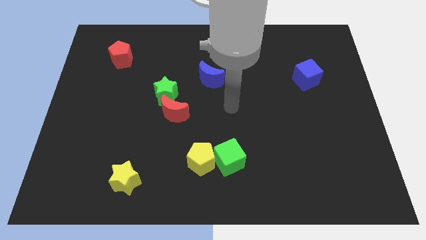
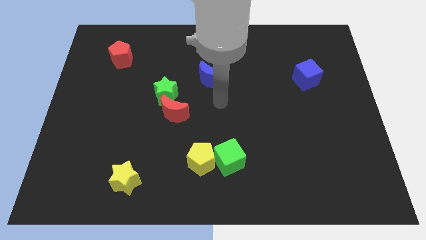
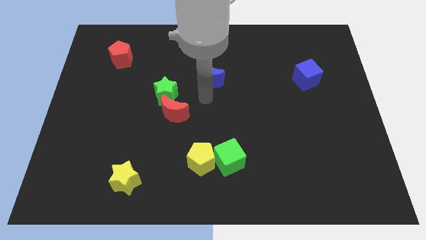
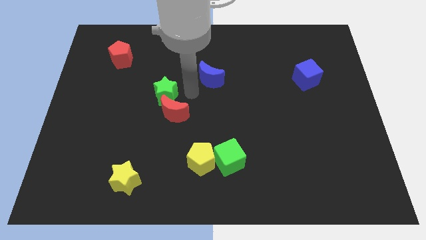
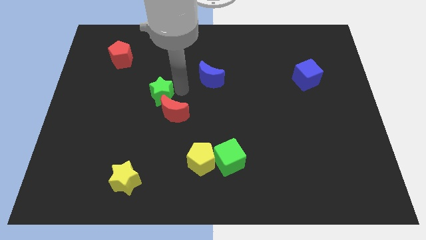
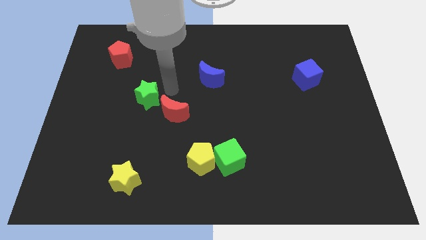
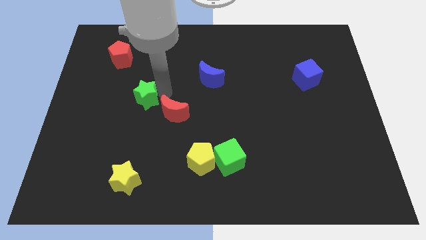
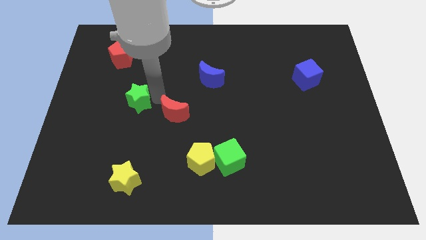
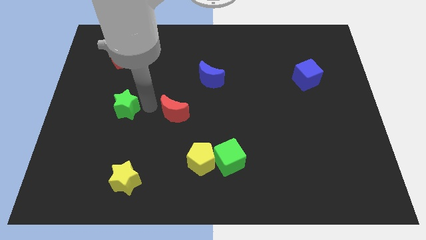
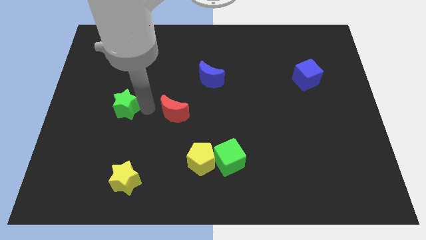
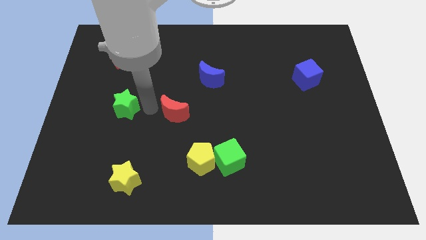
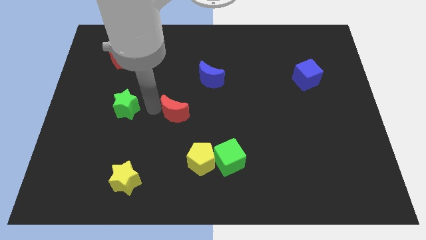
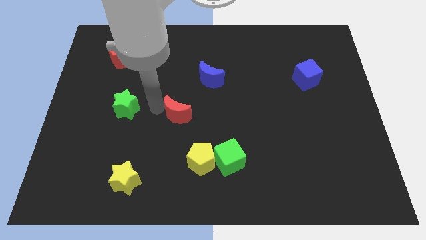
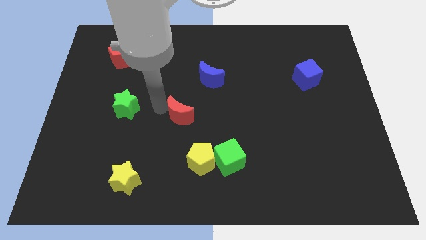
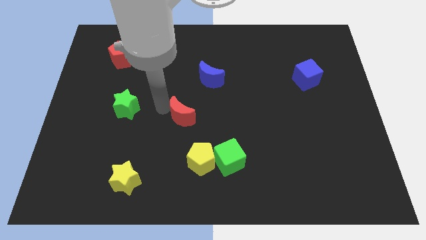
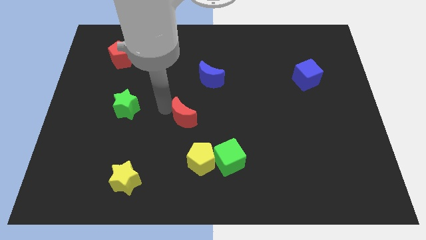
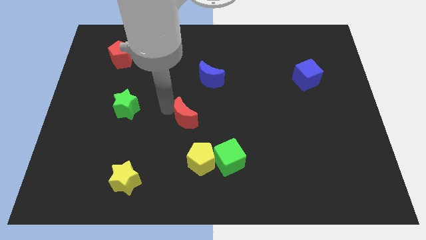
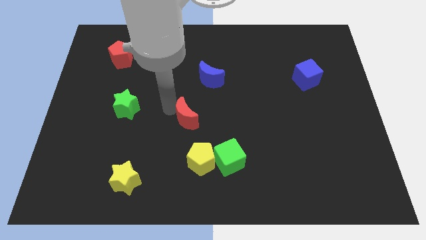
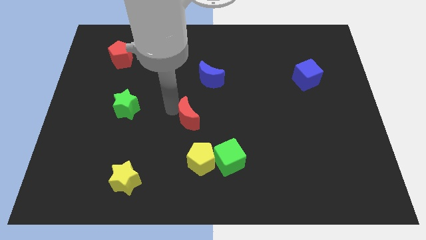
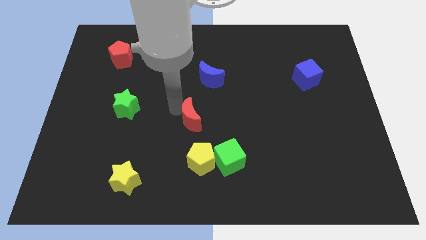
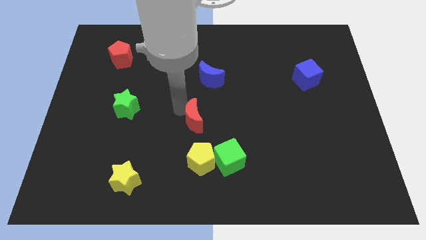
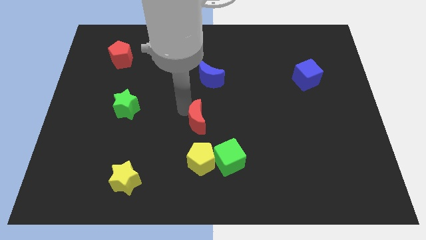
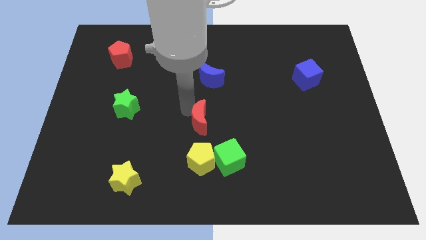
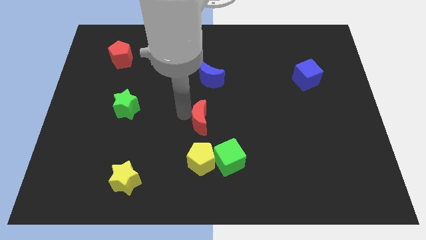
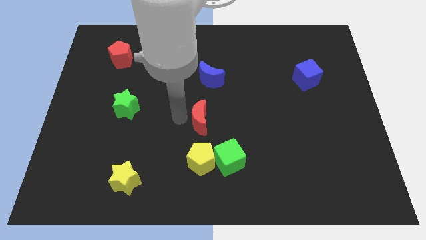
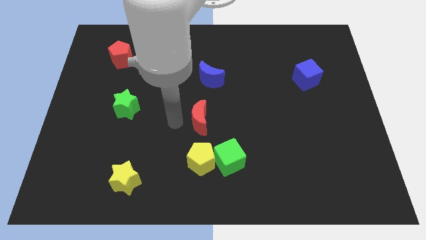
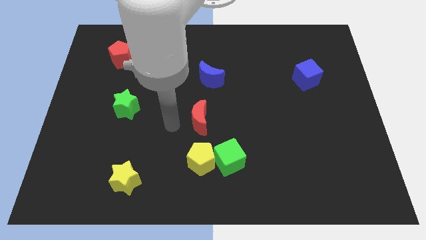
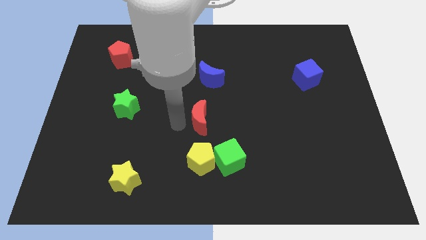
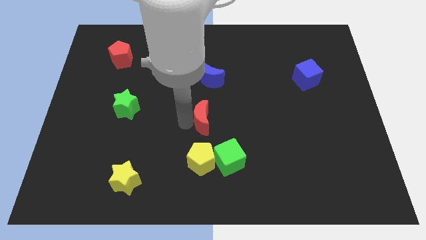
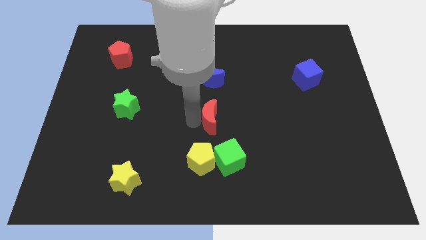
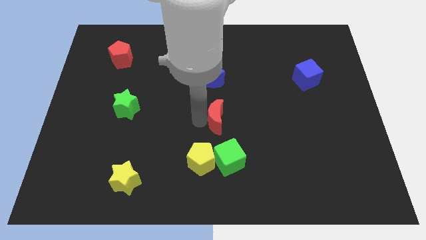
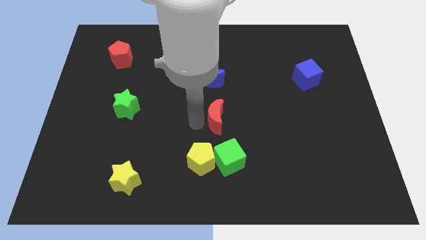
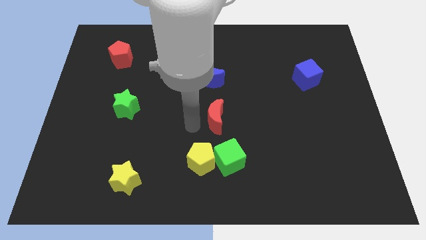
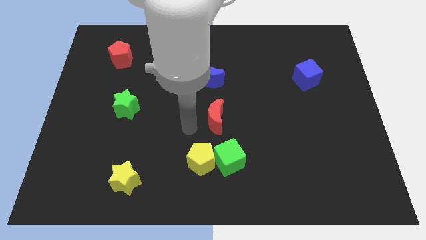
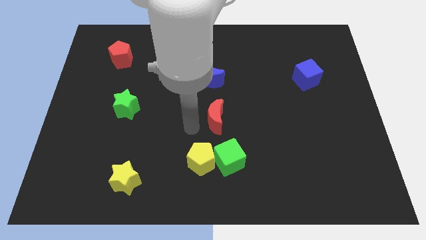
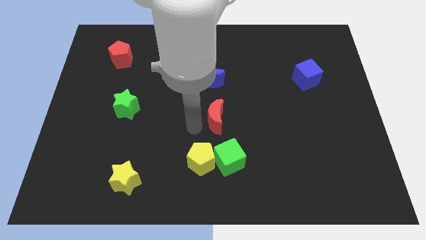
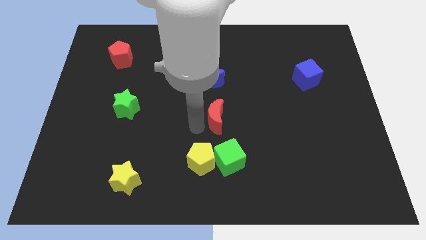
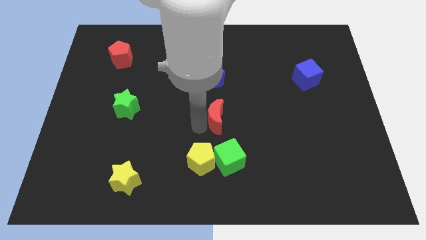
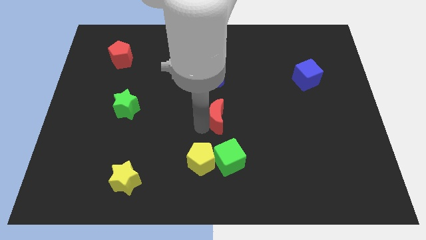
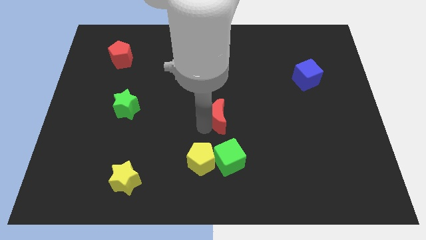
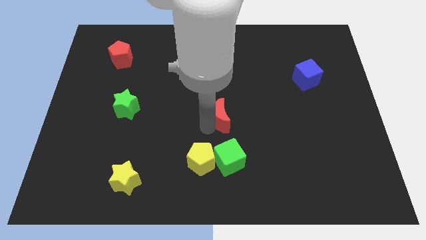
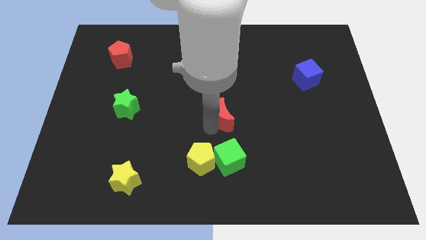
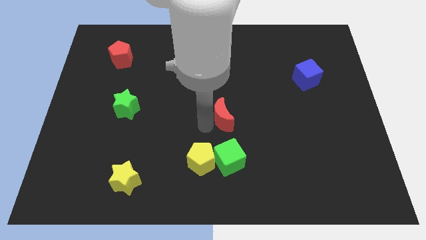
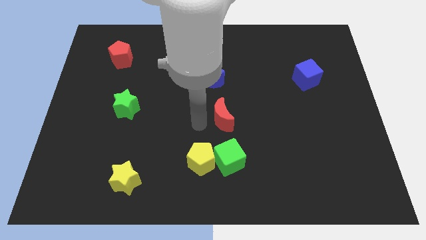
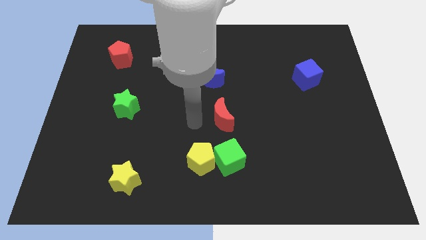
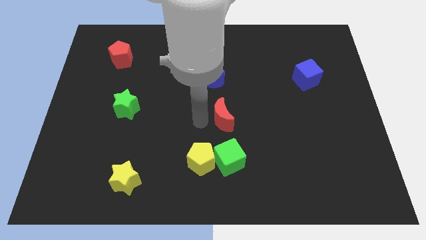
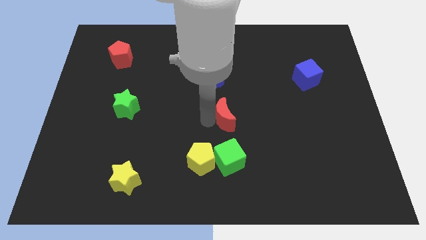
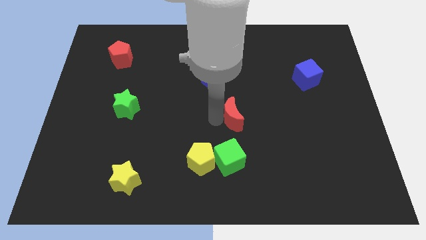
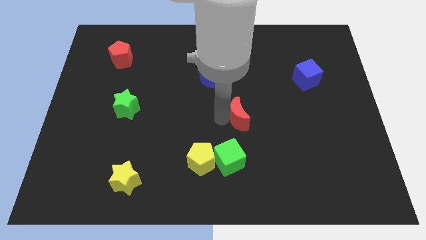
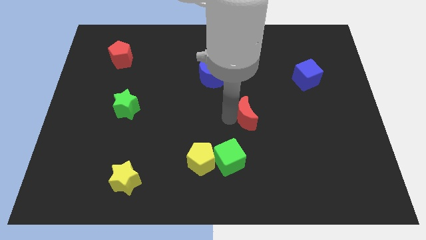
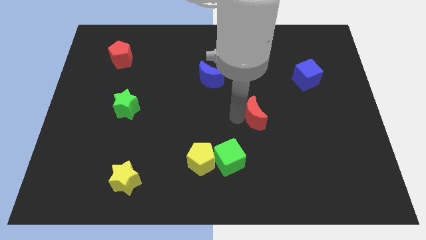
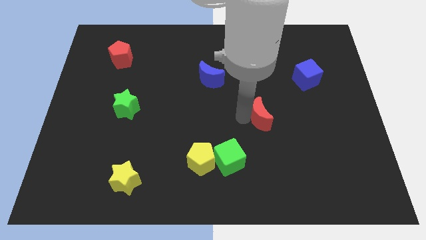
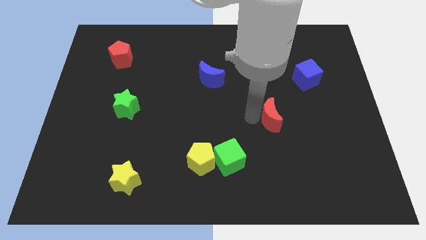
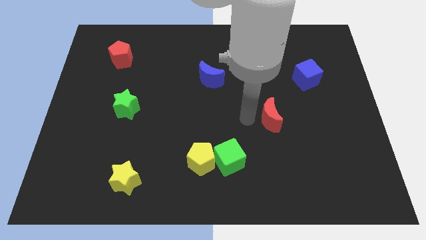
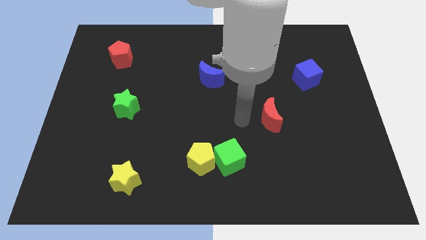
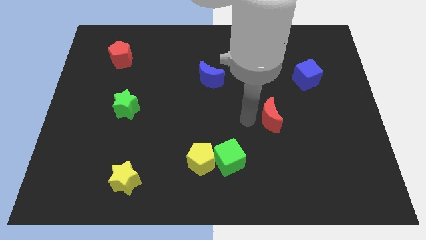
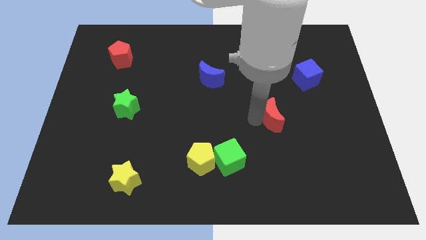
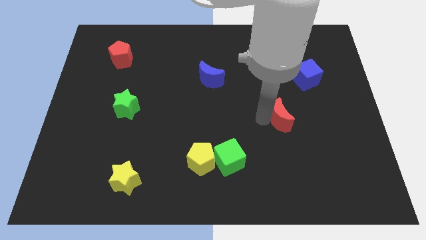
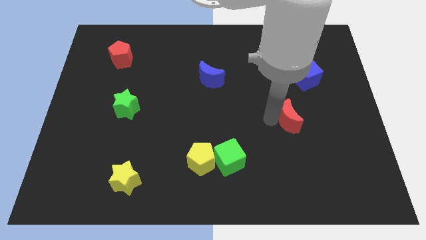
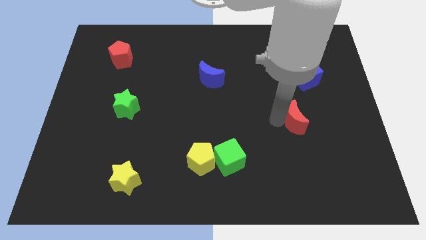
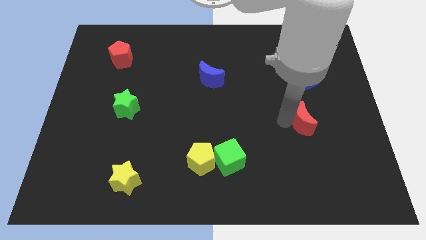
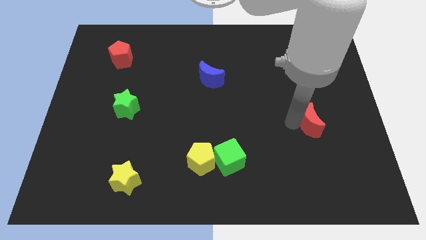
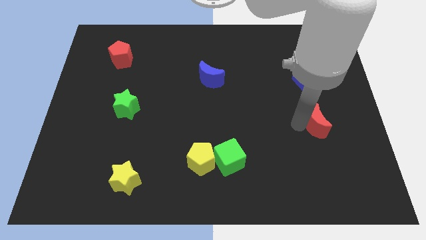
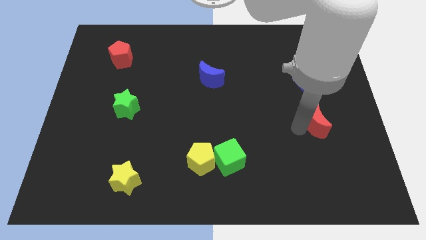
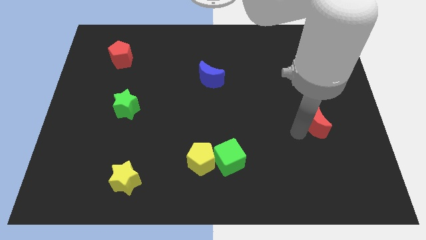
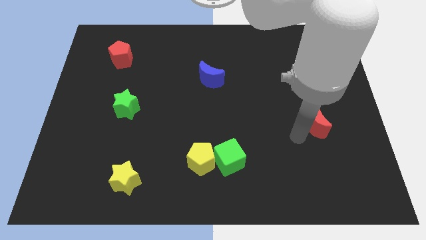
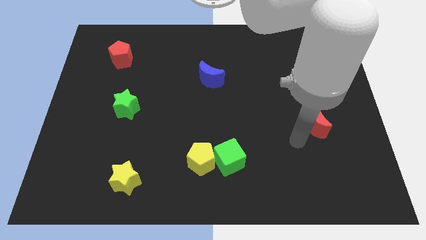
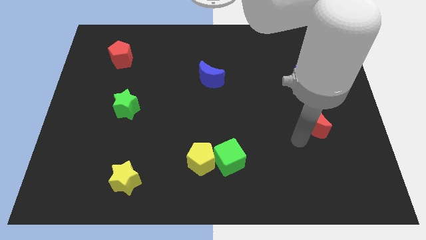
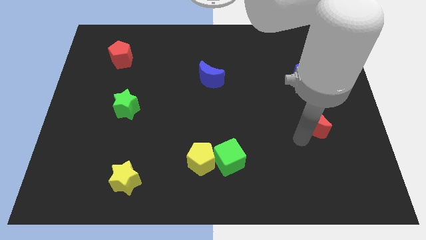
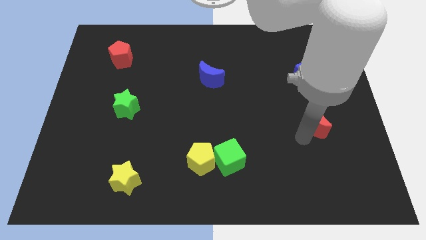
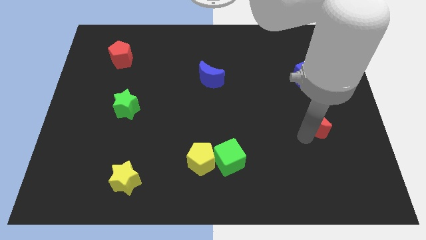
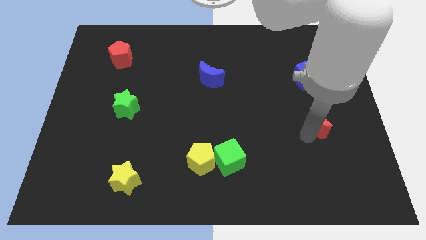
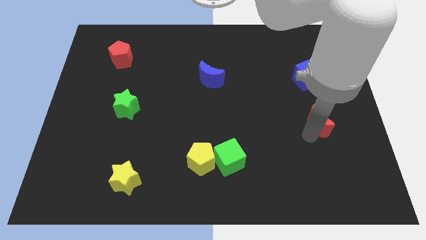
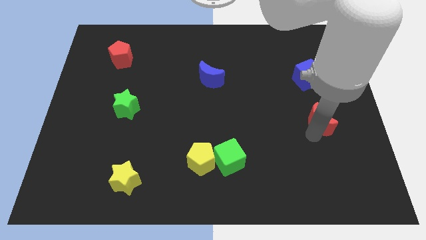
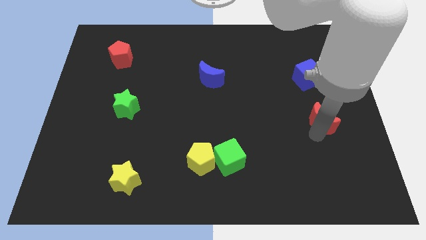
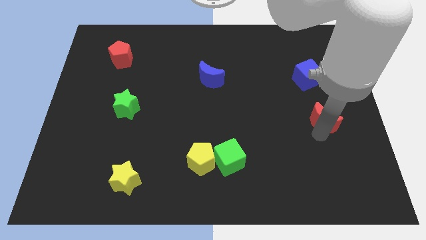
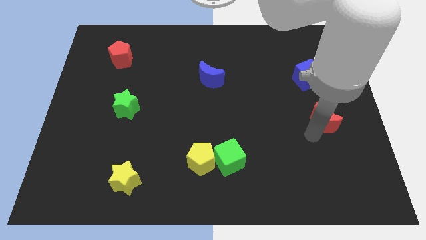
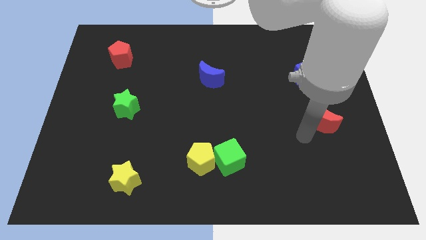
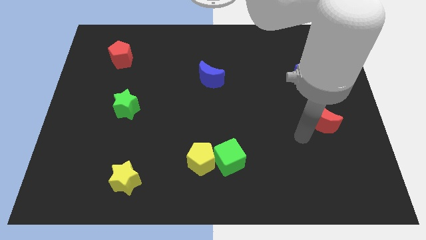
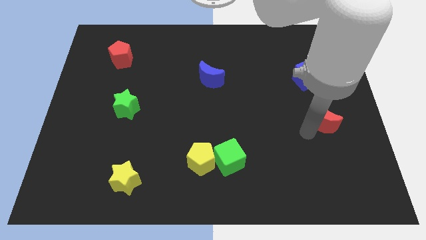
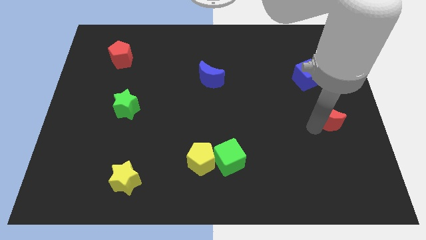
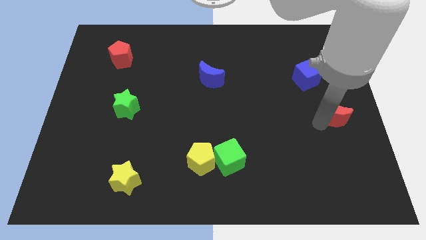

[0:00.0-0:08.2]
put the red moon to the right side of the board
